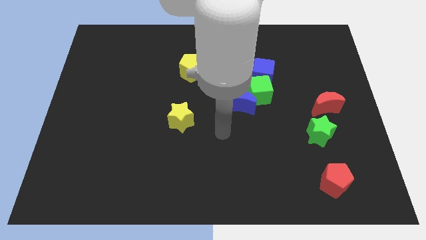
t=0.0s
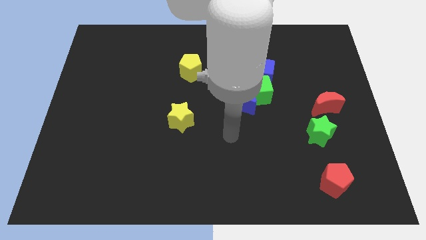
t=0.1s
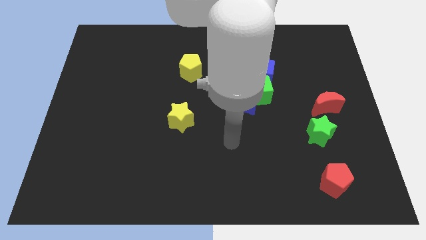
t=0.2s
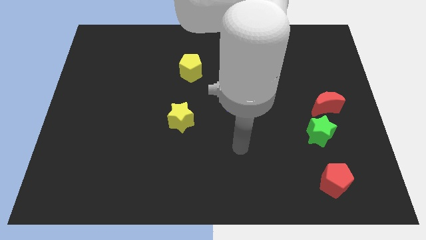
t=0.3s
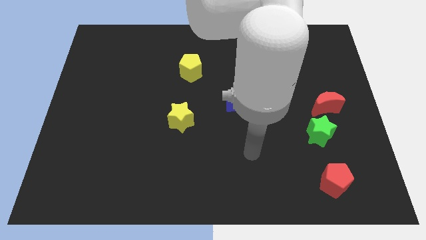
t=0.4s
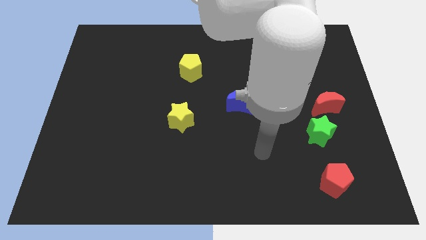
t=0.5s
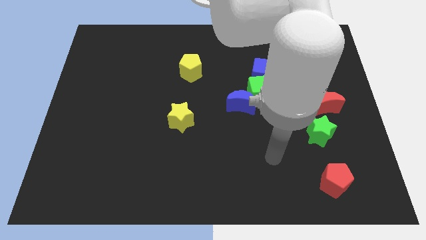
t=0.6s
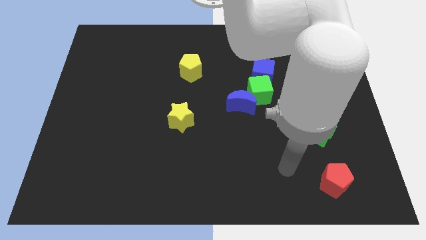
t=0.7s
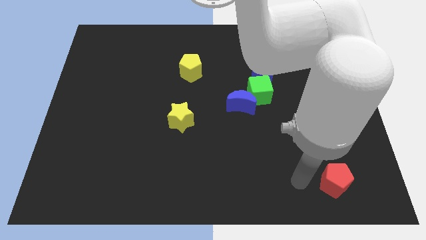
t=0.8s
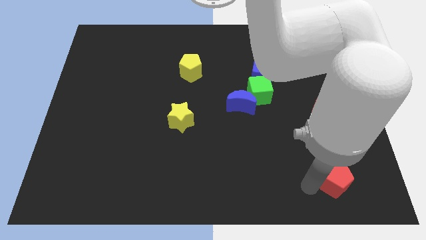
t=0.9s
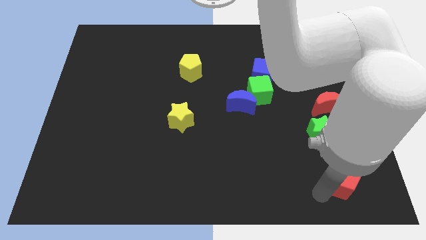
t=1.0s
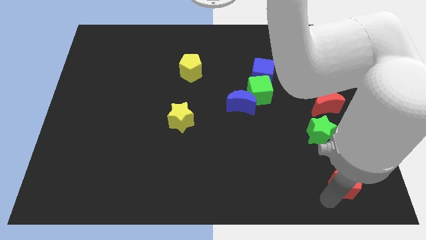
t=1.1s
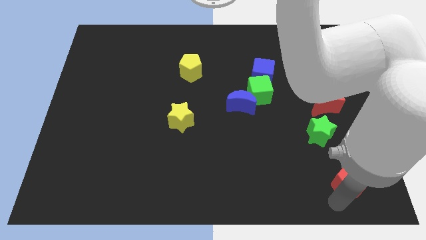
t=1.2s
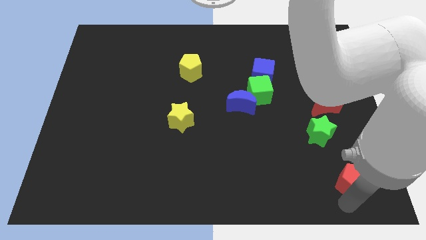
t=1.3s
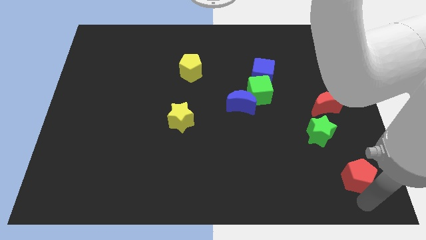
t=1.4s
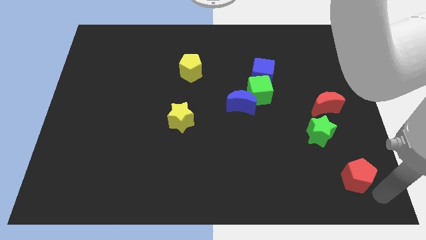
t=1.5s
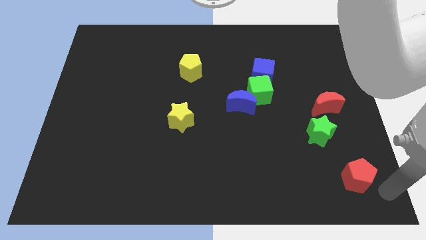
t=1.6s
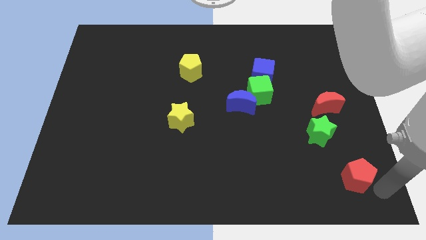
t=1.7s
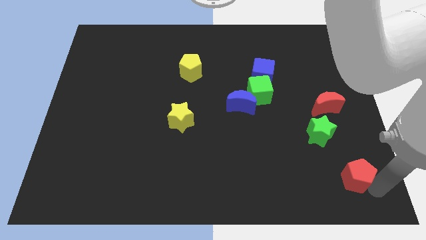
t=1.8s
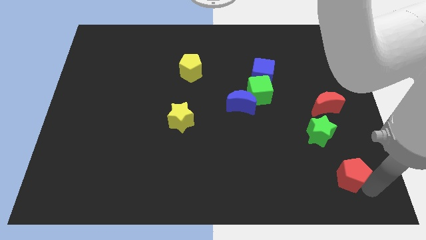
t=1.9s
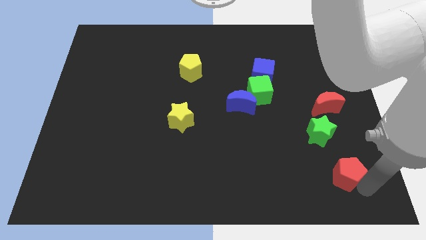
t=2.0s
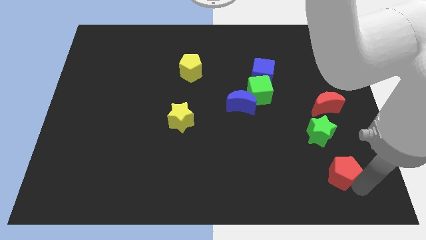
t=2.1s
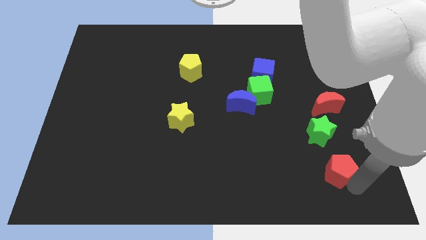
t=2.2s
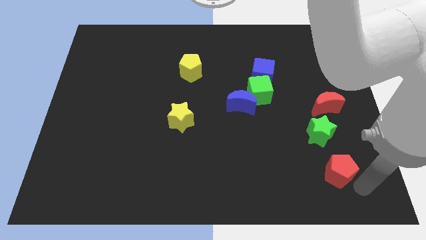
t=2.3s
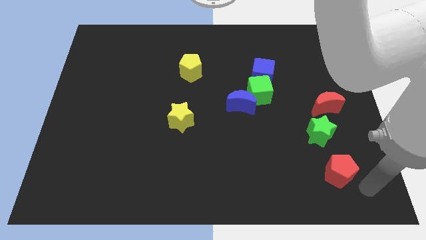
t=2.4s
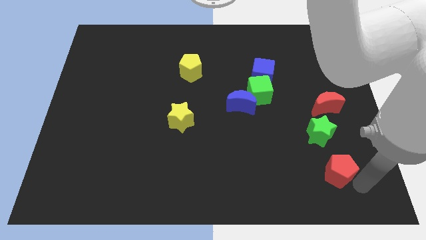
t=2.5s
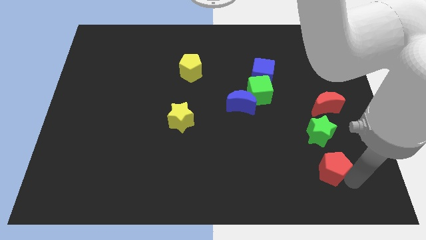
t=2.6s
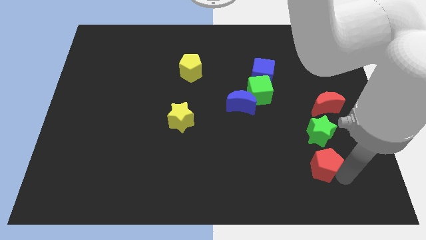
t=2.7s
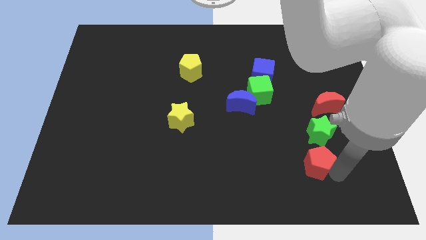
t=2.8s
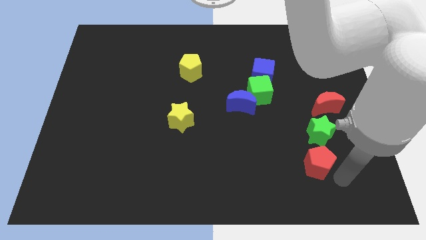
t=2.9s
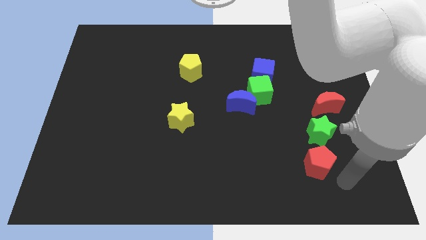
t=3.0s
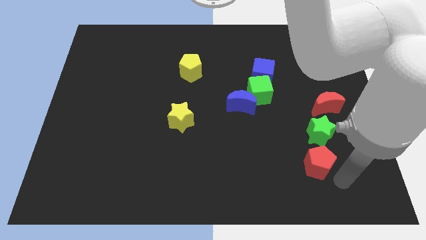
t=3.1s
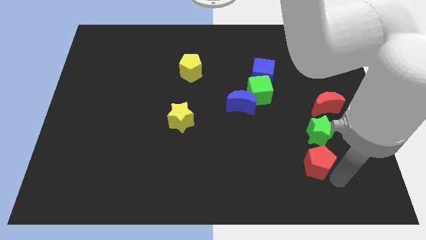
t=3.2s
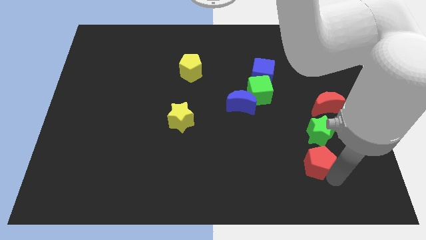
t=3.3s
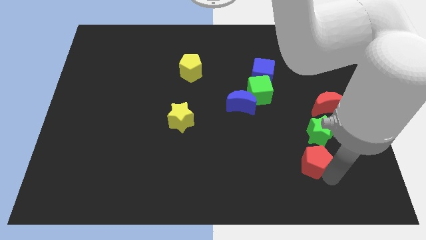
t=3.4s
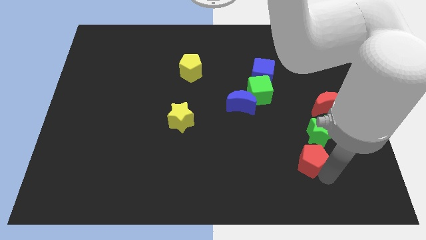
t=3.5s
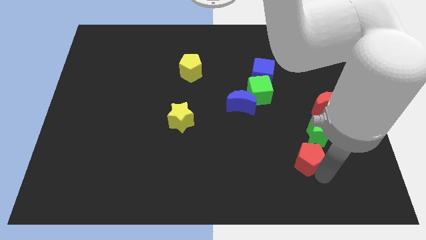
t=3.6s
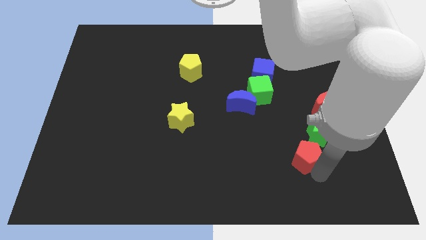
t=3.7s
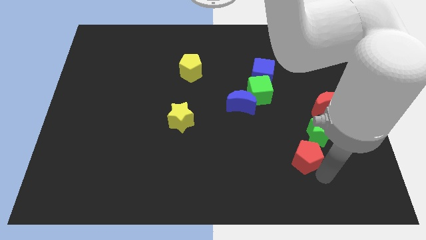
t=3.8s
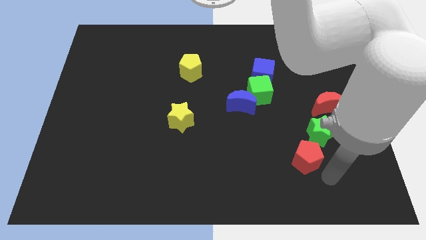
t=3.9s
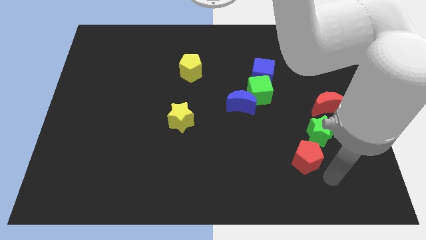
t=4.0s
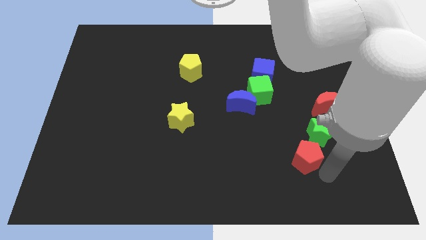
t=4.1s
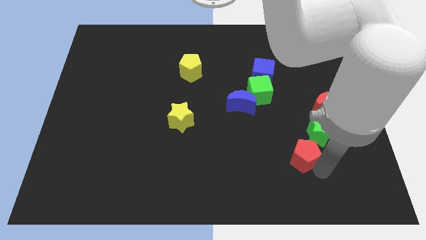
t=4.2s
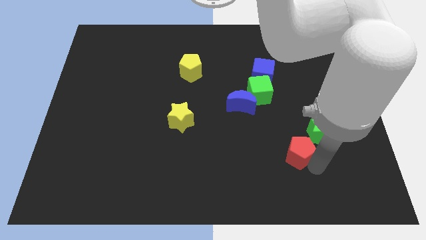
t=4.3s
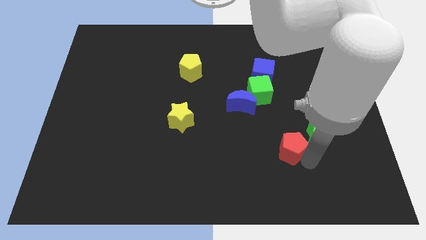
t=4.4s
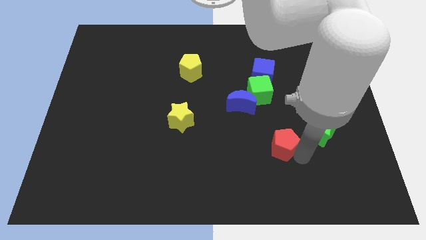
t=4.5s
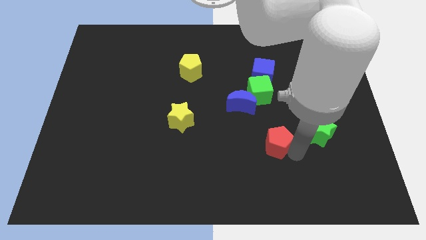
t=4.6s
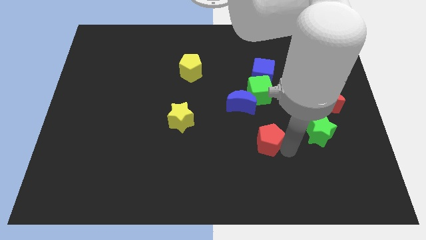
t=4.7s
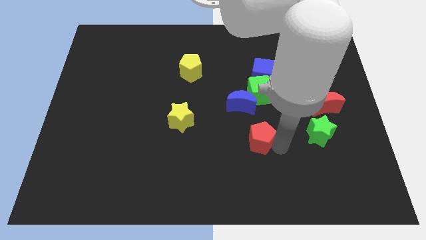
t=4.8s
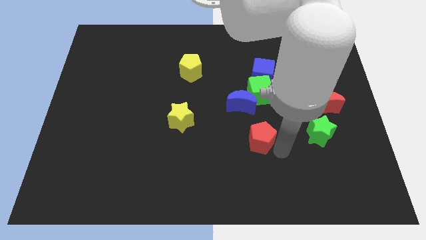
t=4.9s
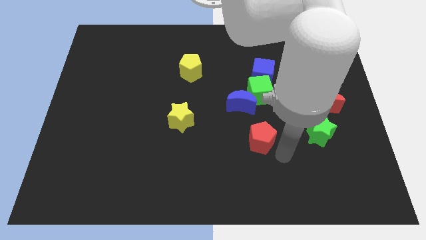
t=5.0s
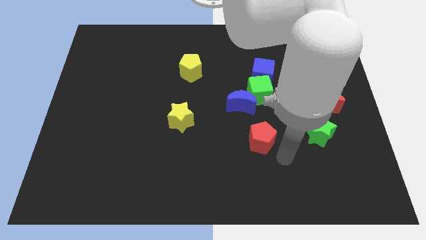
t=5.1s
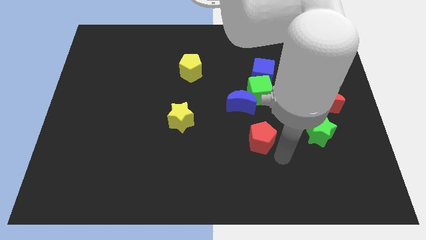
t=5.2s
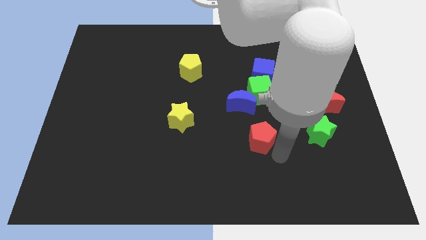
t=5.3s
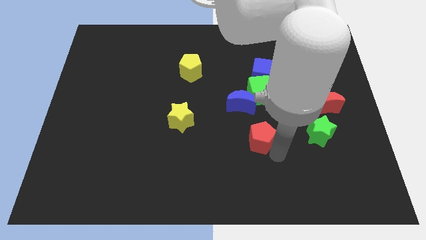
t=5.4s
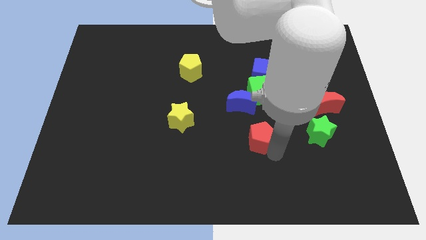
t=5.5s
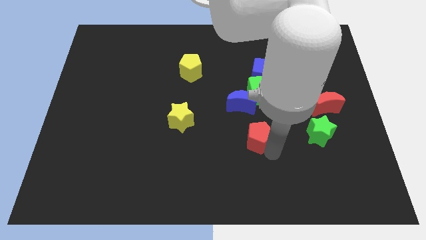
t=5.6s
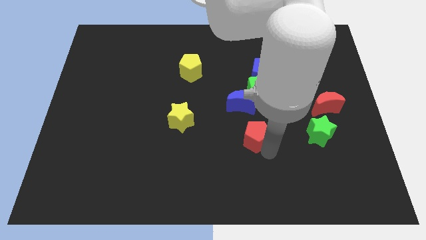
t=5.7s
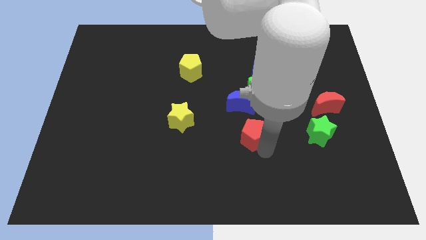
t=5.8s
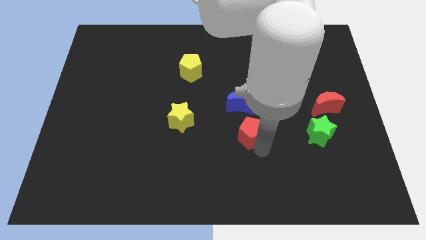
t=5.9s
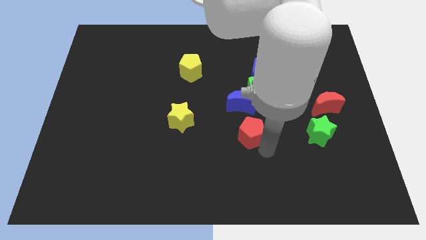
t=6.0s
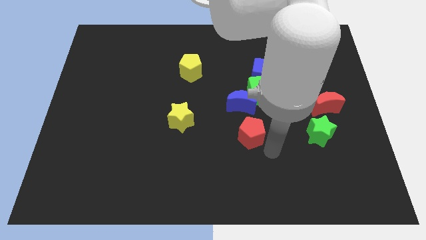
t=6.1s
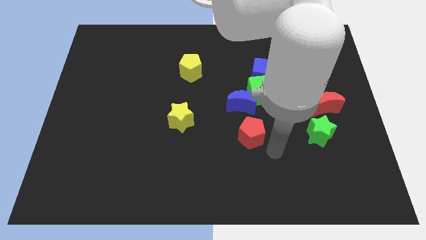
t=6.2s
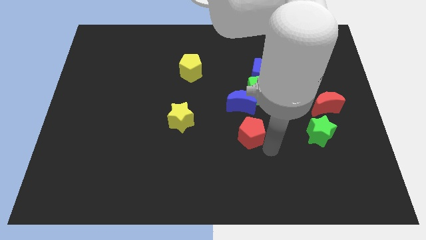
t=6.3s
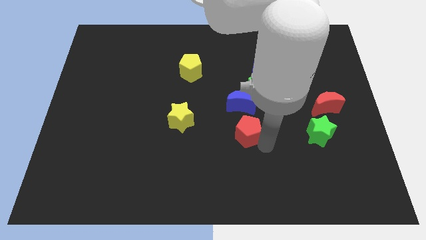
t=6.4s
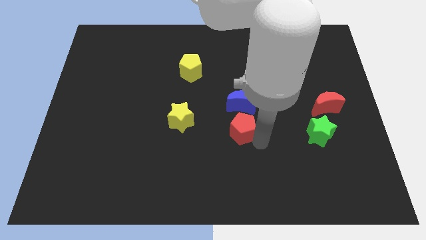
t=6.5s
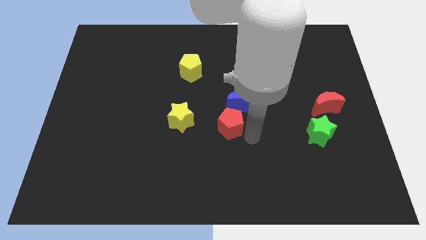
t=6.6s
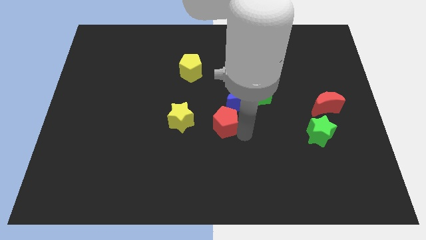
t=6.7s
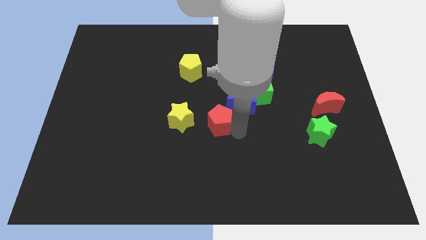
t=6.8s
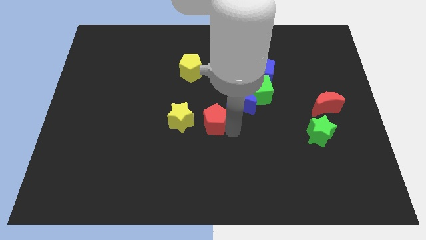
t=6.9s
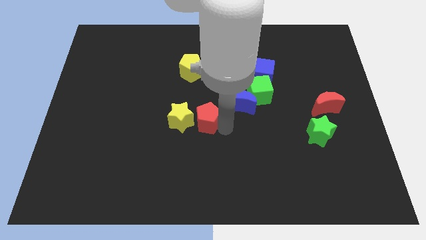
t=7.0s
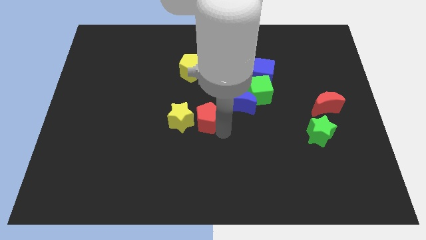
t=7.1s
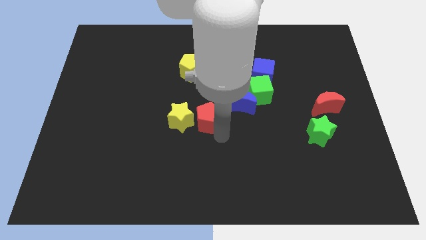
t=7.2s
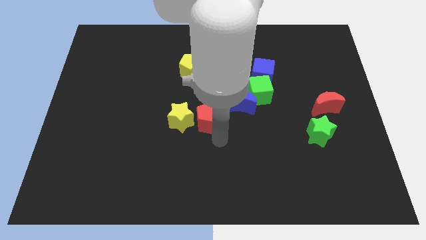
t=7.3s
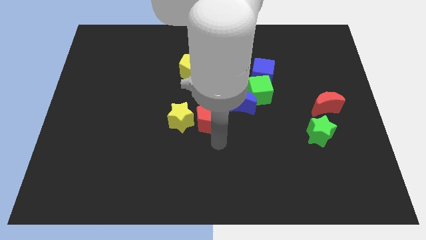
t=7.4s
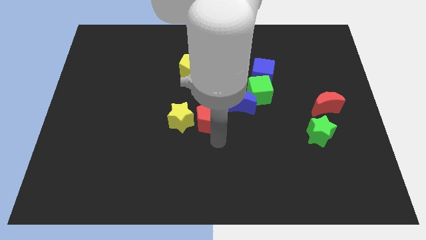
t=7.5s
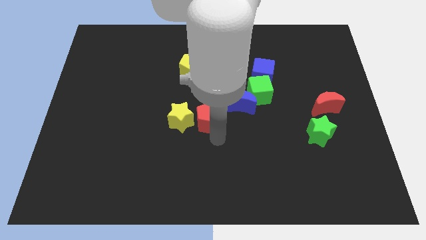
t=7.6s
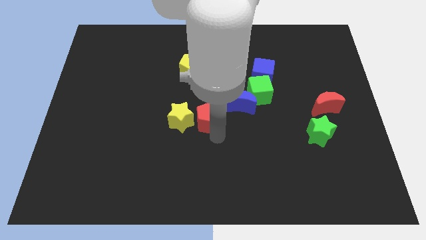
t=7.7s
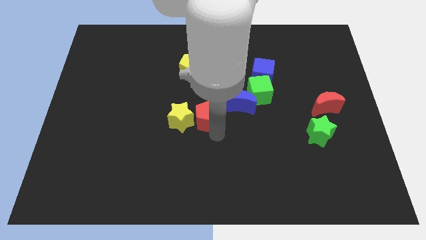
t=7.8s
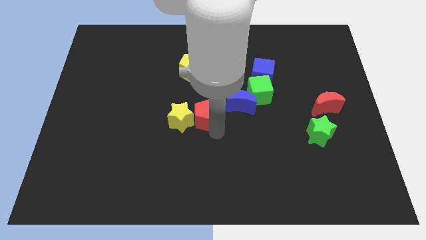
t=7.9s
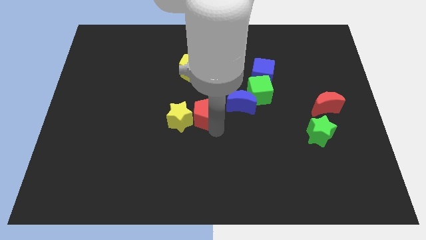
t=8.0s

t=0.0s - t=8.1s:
put the red pentagon to the bottom of the yellow pentagon
